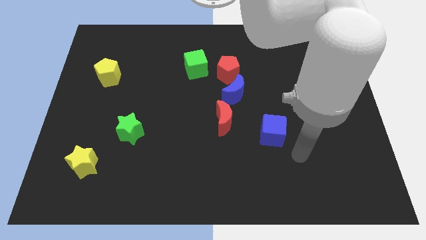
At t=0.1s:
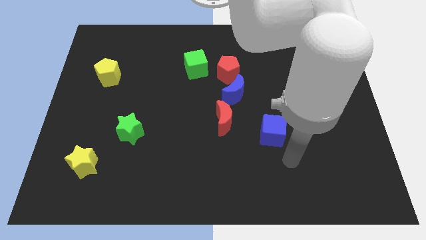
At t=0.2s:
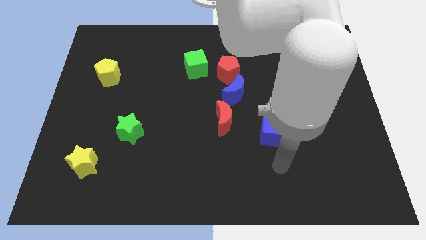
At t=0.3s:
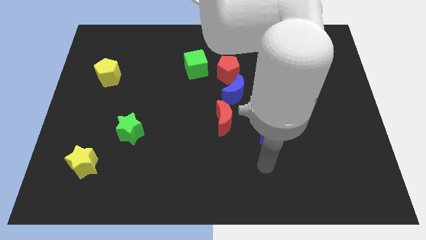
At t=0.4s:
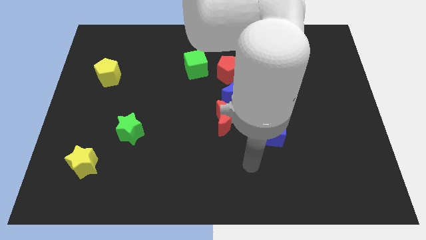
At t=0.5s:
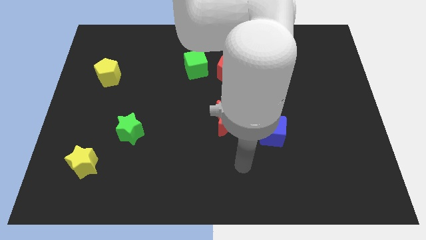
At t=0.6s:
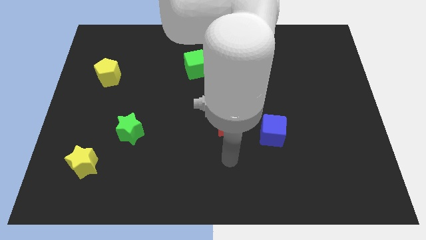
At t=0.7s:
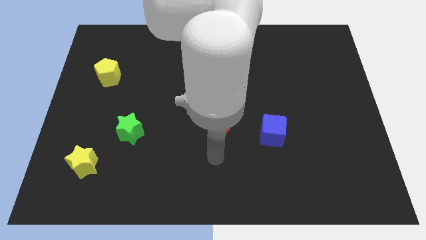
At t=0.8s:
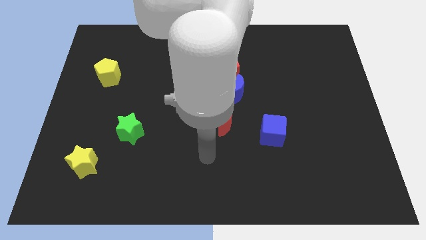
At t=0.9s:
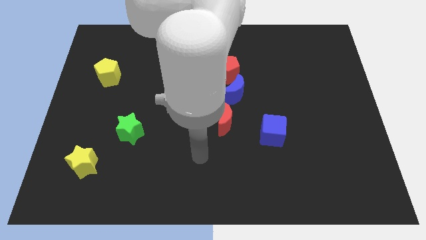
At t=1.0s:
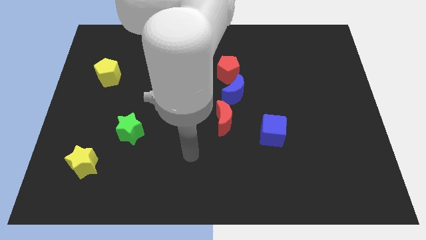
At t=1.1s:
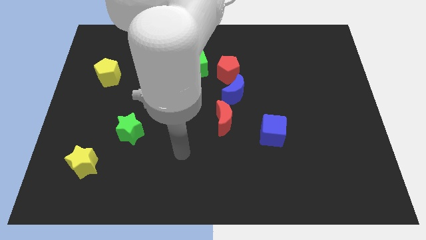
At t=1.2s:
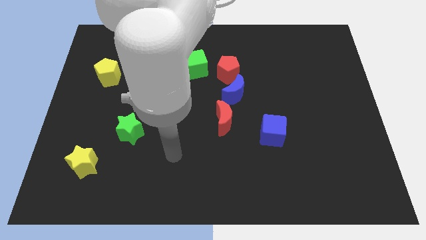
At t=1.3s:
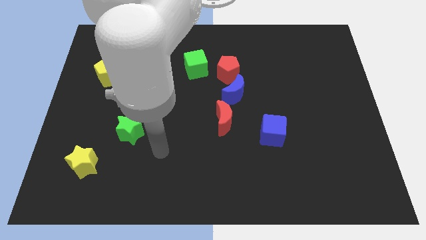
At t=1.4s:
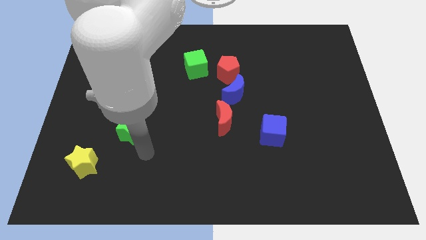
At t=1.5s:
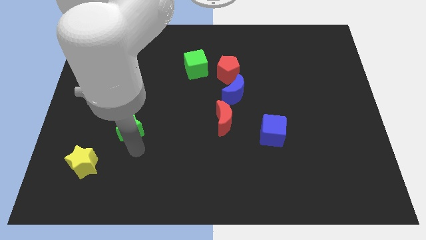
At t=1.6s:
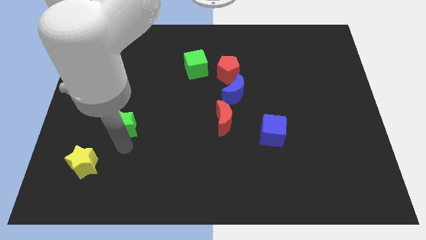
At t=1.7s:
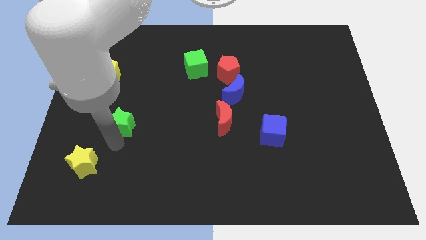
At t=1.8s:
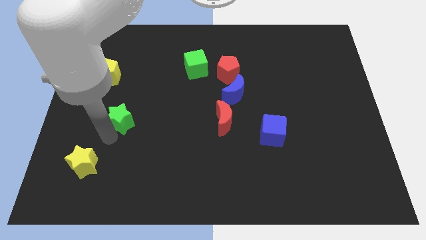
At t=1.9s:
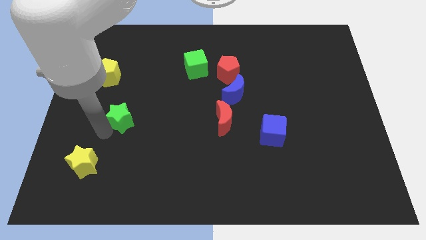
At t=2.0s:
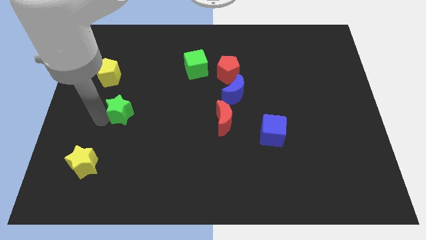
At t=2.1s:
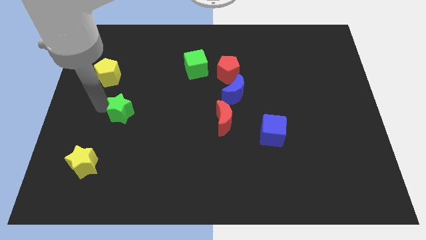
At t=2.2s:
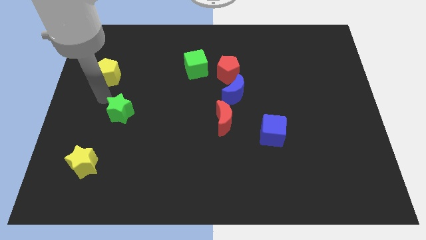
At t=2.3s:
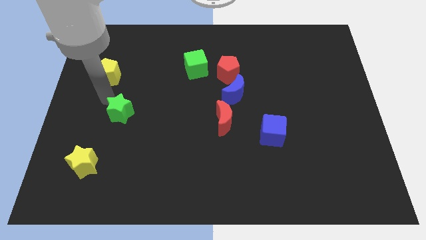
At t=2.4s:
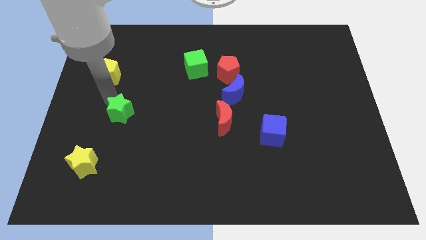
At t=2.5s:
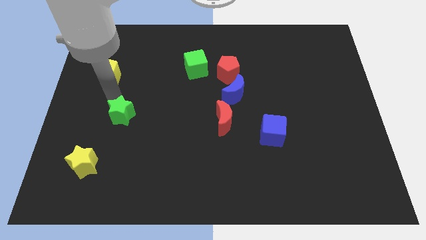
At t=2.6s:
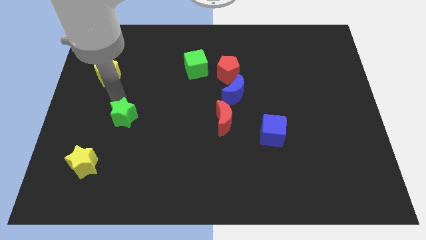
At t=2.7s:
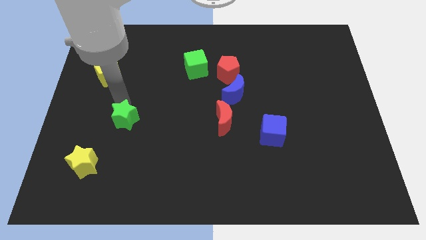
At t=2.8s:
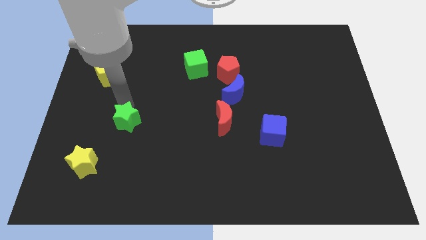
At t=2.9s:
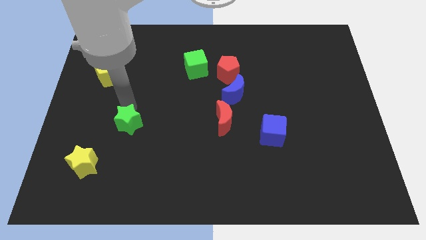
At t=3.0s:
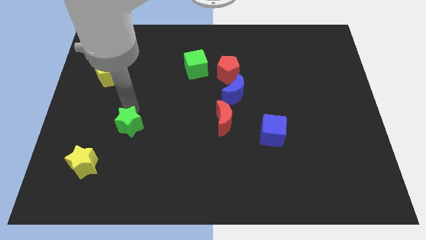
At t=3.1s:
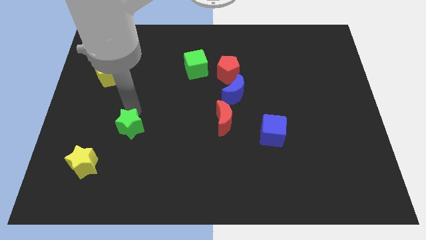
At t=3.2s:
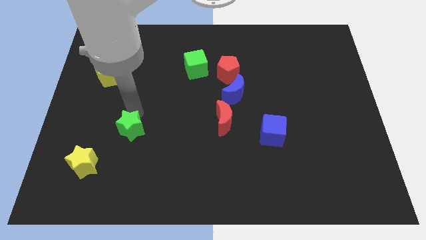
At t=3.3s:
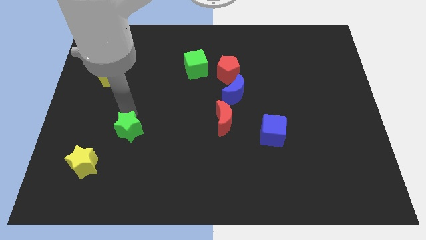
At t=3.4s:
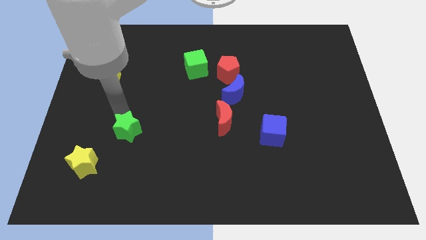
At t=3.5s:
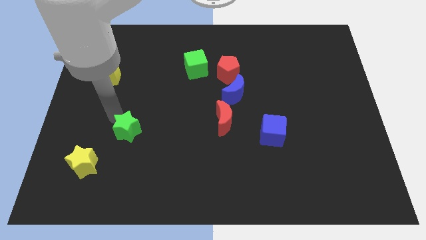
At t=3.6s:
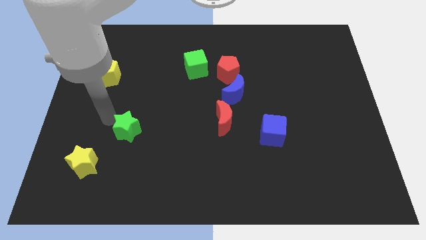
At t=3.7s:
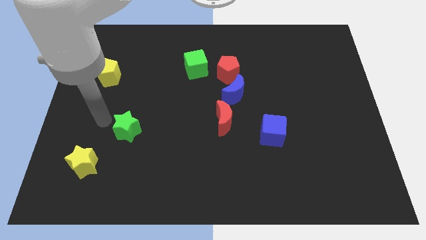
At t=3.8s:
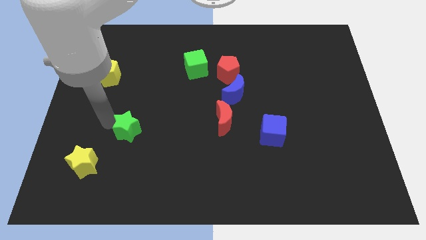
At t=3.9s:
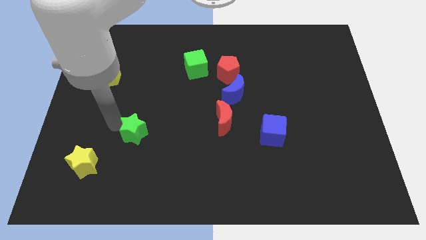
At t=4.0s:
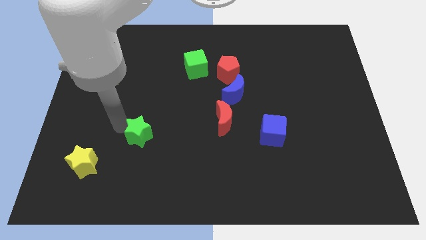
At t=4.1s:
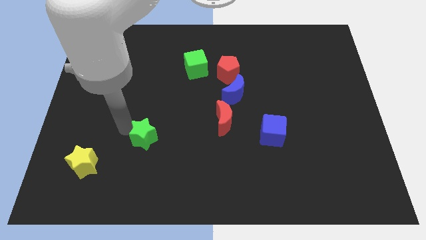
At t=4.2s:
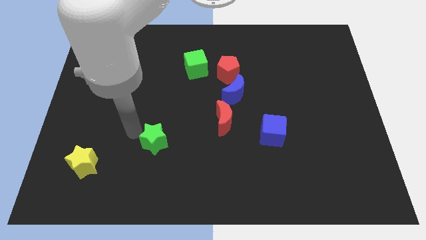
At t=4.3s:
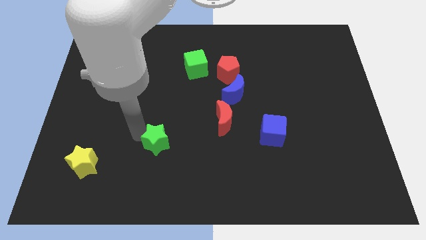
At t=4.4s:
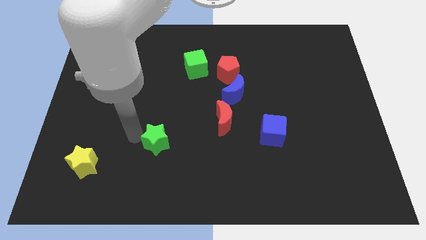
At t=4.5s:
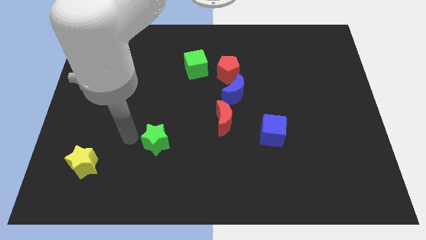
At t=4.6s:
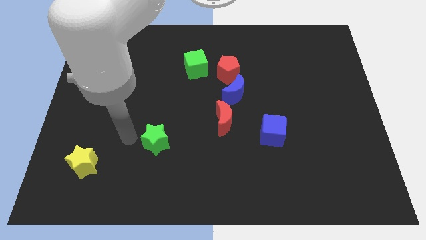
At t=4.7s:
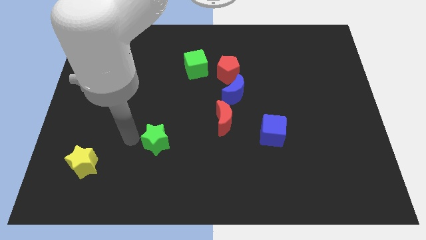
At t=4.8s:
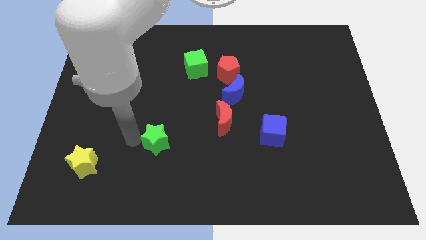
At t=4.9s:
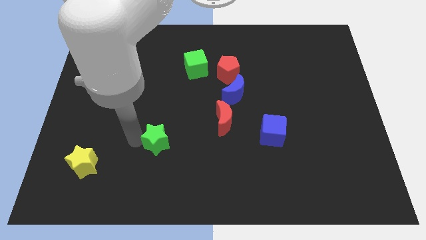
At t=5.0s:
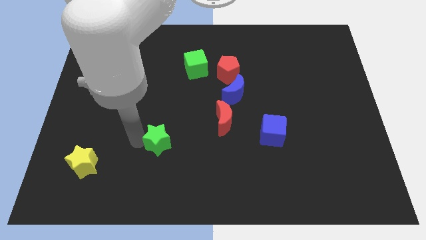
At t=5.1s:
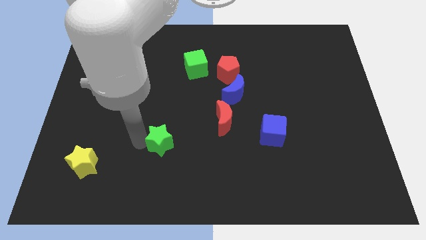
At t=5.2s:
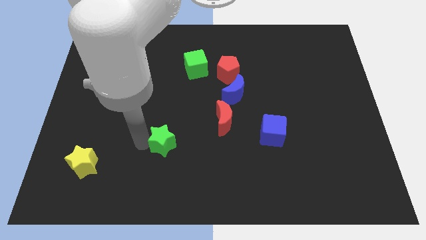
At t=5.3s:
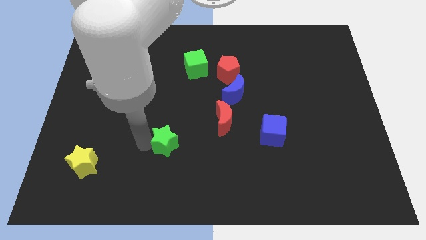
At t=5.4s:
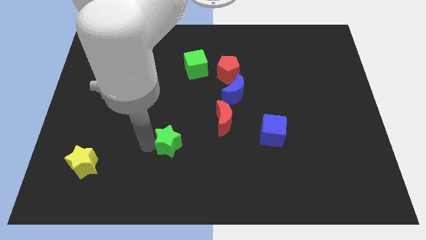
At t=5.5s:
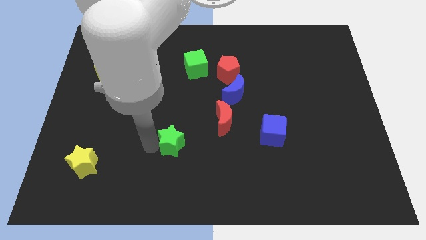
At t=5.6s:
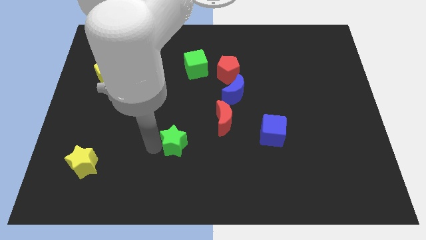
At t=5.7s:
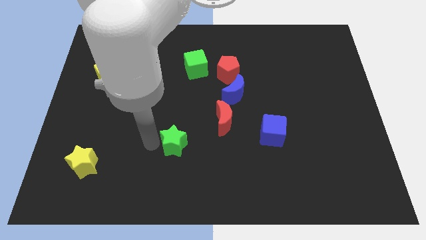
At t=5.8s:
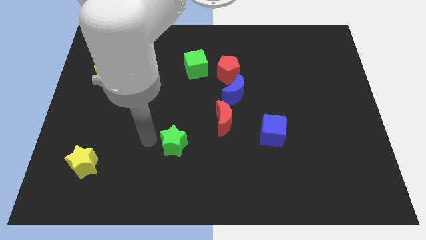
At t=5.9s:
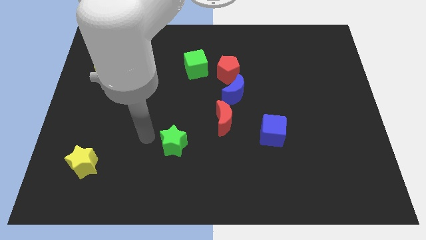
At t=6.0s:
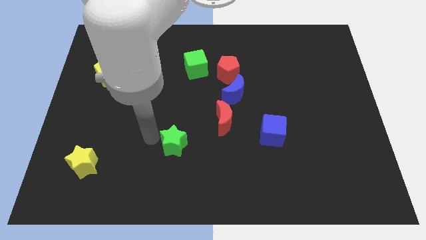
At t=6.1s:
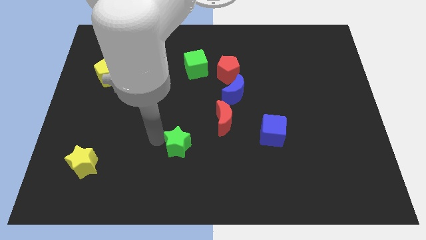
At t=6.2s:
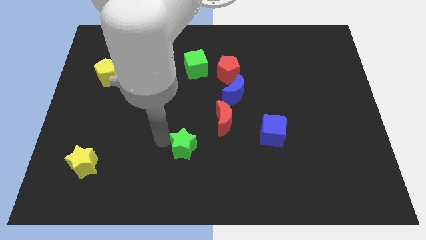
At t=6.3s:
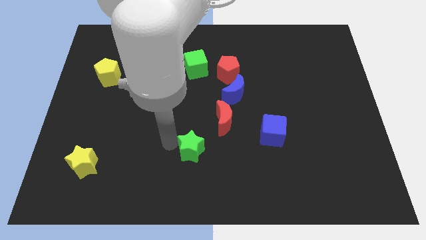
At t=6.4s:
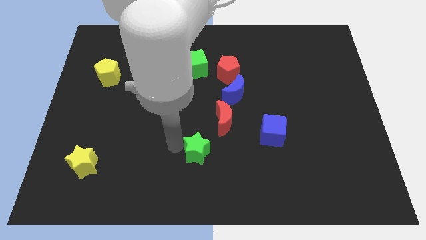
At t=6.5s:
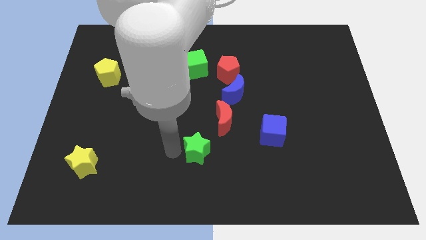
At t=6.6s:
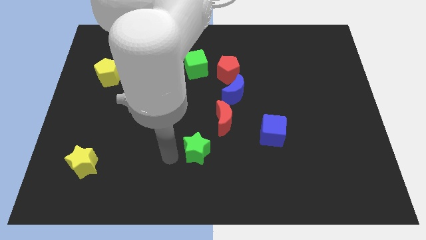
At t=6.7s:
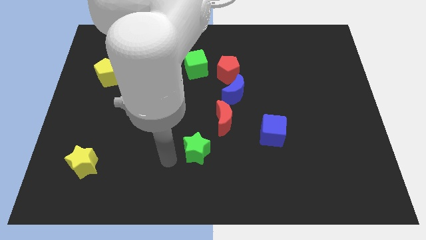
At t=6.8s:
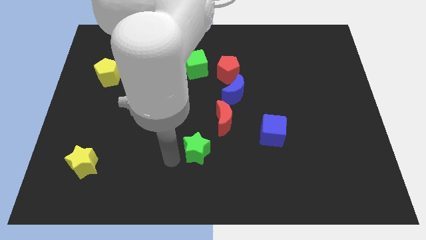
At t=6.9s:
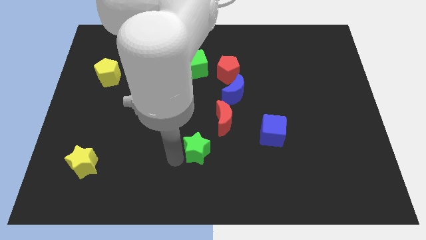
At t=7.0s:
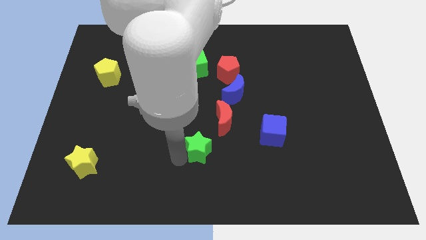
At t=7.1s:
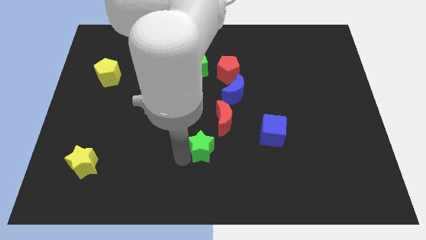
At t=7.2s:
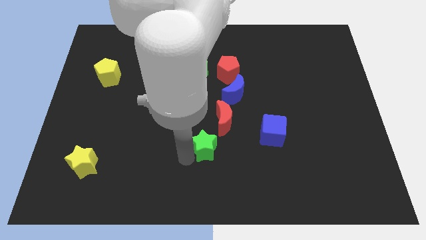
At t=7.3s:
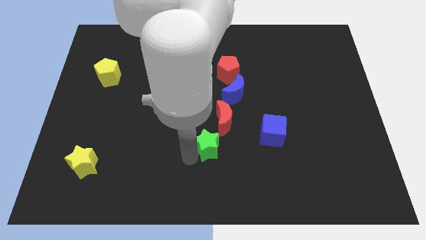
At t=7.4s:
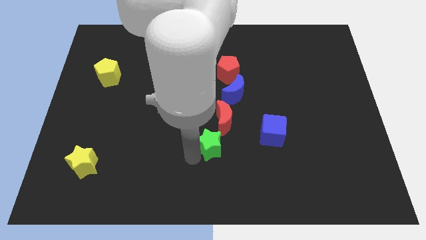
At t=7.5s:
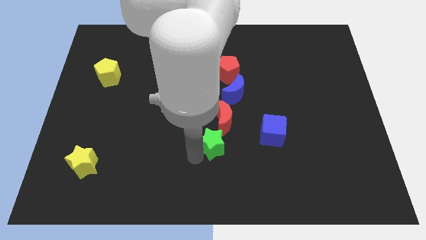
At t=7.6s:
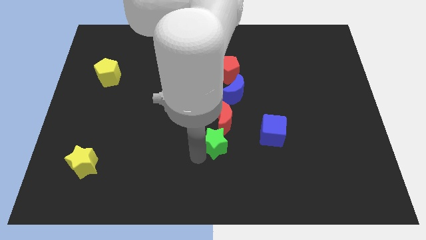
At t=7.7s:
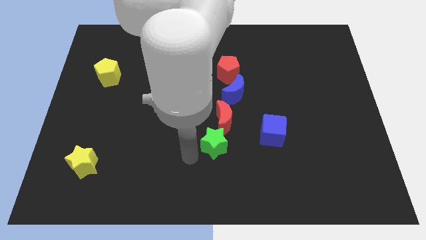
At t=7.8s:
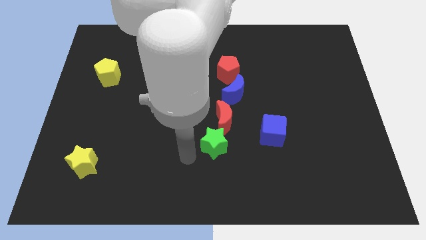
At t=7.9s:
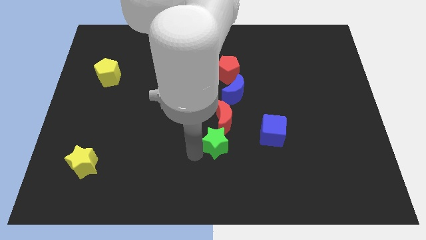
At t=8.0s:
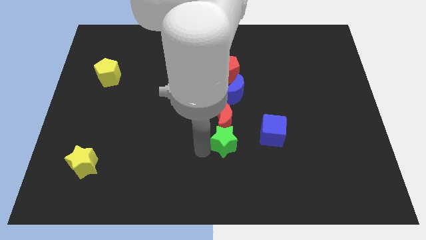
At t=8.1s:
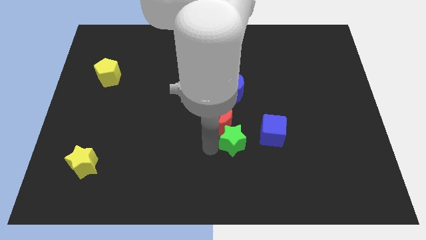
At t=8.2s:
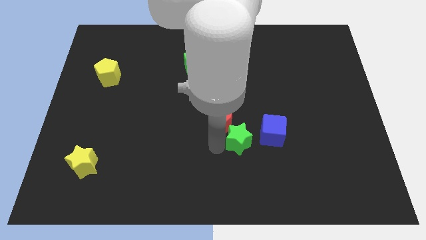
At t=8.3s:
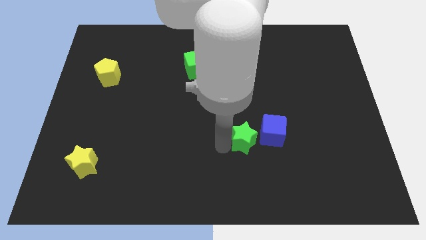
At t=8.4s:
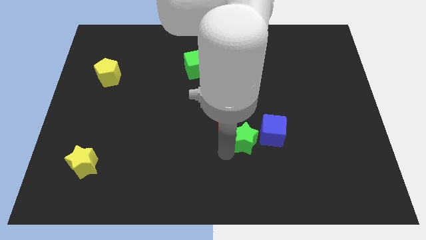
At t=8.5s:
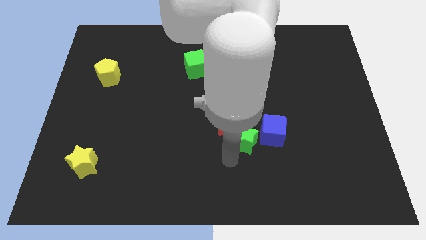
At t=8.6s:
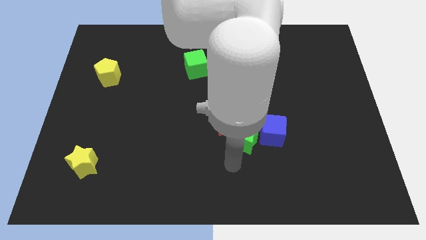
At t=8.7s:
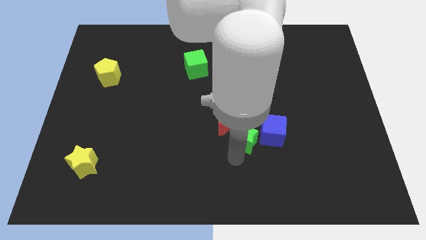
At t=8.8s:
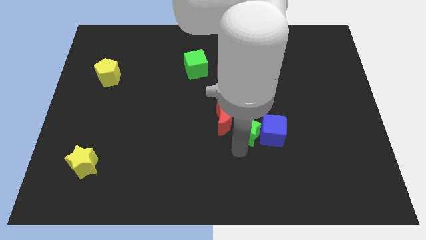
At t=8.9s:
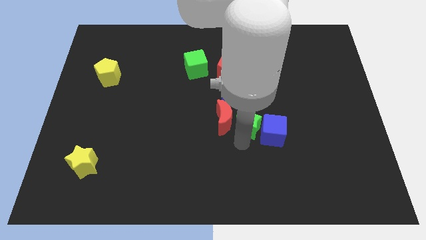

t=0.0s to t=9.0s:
push the green star to the top right side of the red moon
